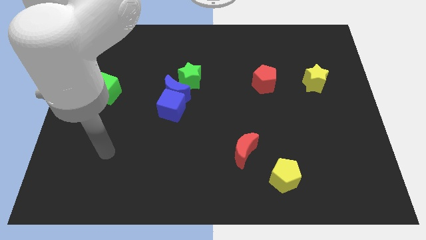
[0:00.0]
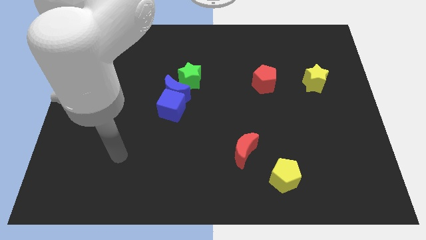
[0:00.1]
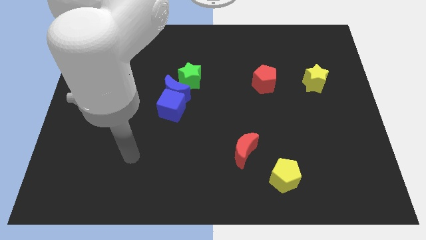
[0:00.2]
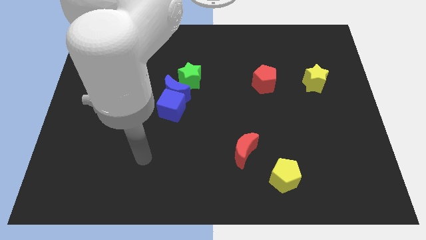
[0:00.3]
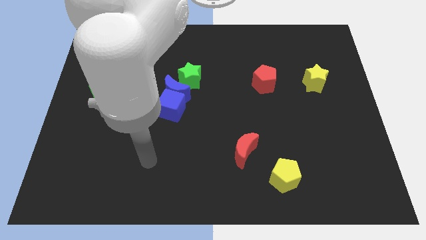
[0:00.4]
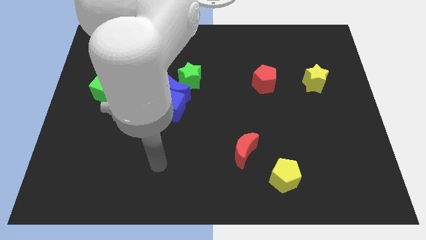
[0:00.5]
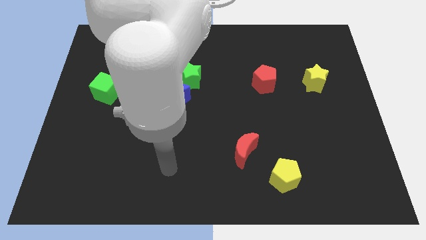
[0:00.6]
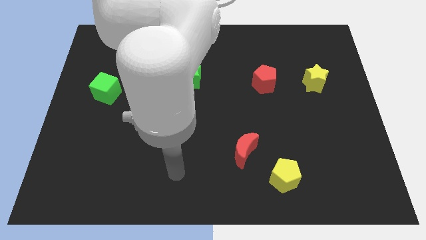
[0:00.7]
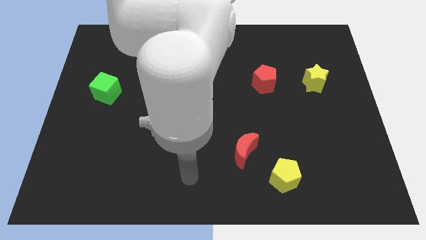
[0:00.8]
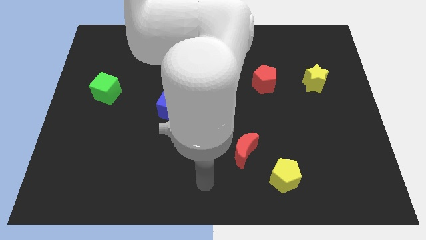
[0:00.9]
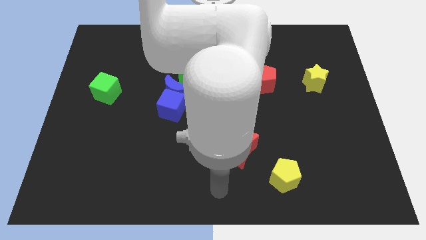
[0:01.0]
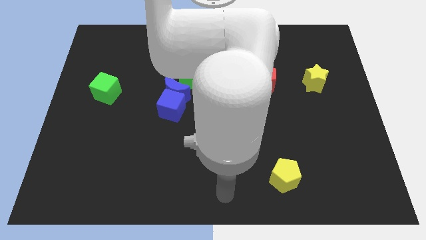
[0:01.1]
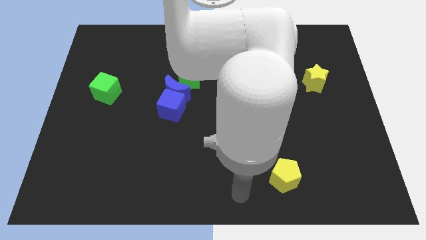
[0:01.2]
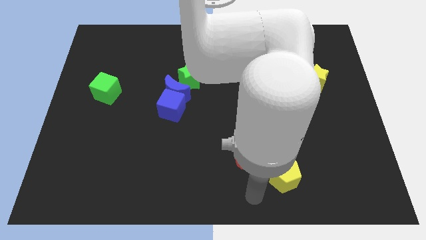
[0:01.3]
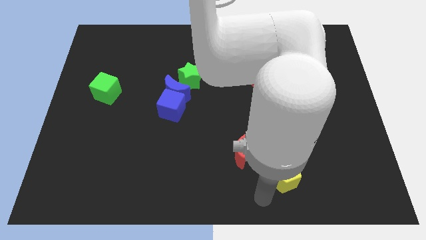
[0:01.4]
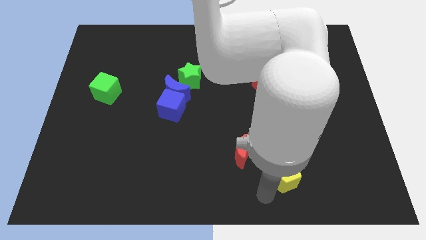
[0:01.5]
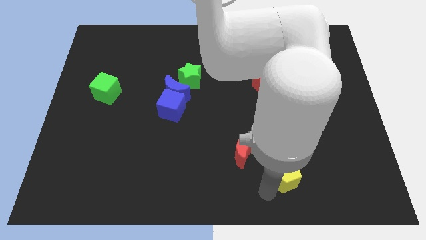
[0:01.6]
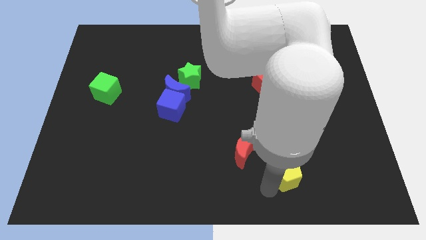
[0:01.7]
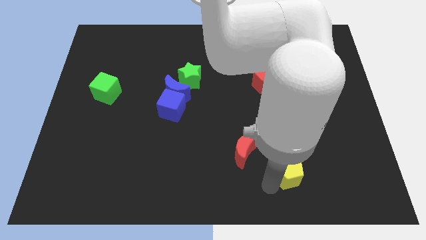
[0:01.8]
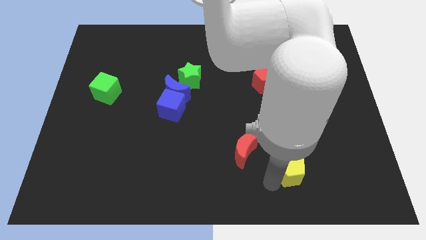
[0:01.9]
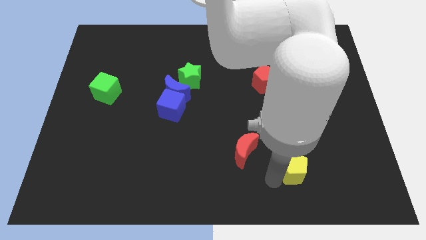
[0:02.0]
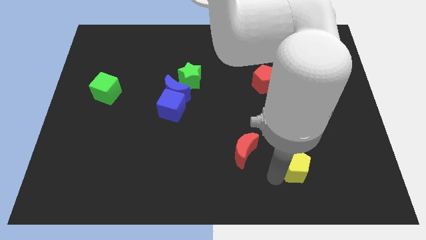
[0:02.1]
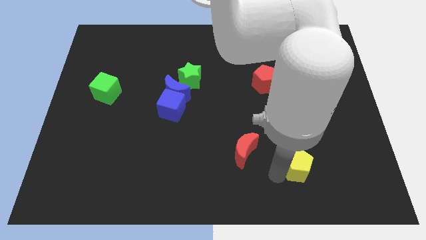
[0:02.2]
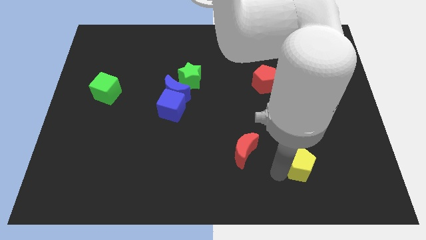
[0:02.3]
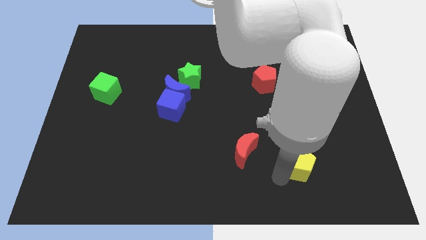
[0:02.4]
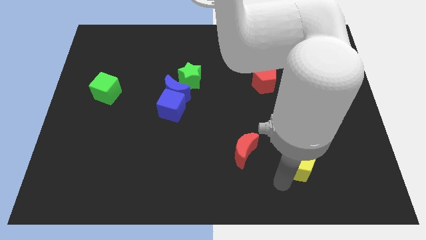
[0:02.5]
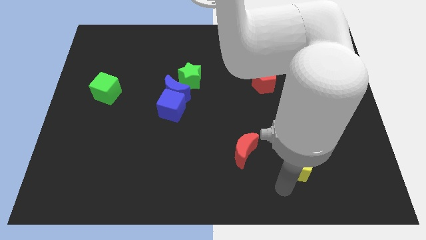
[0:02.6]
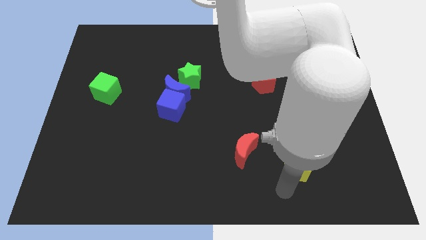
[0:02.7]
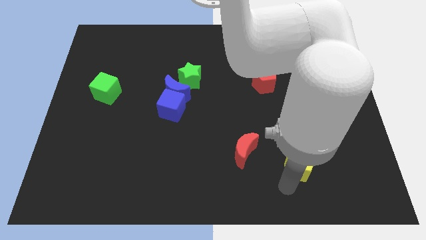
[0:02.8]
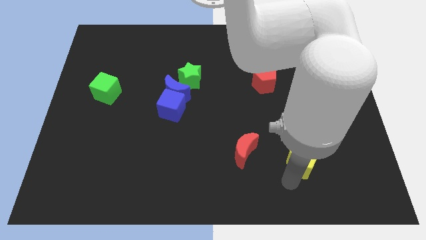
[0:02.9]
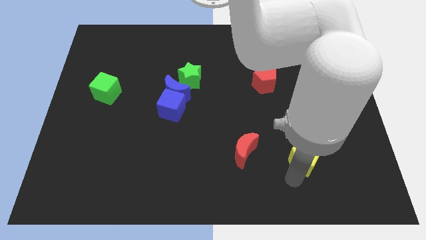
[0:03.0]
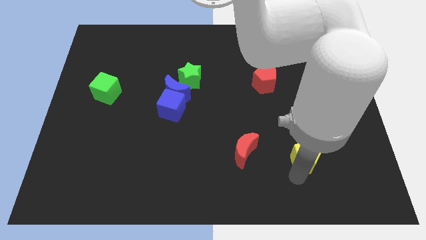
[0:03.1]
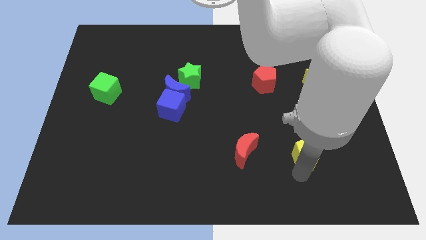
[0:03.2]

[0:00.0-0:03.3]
push the yellow pentagon up and to the right a bit

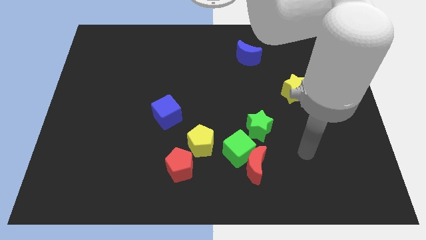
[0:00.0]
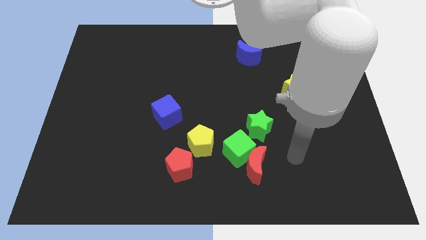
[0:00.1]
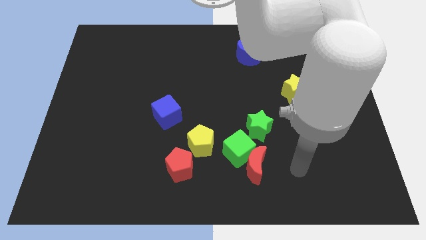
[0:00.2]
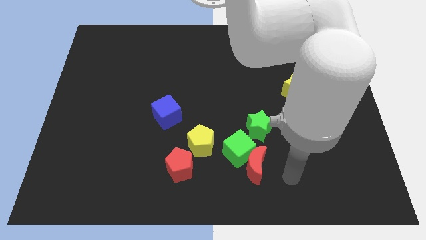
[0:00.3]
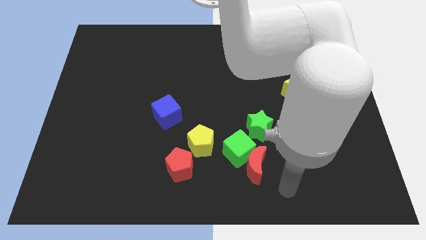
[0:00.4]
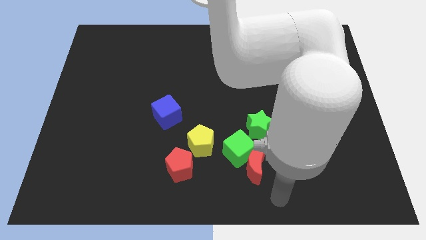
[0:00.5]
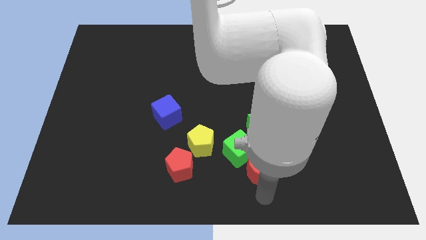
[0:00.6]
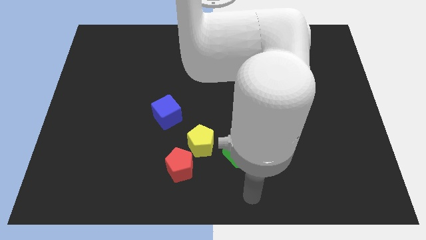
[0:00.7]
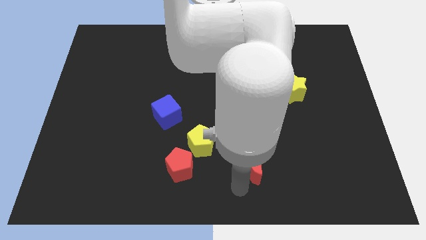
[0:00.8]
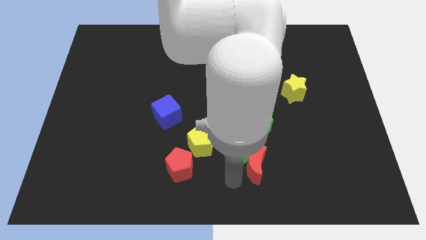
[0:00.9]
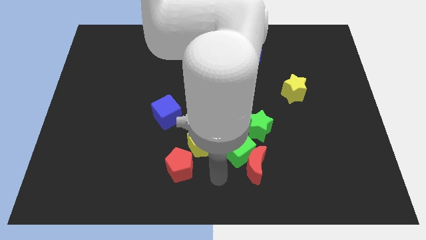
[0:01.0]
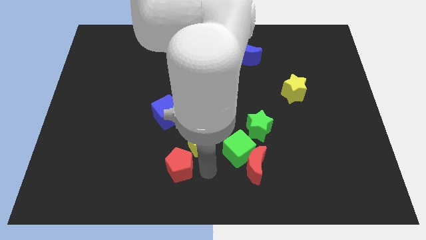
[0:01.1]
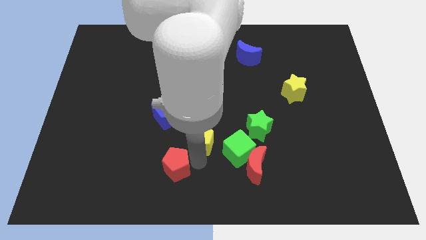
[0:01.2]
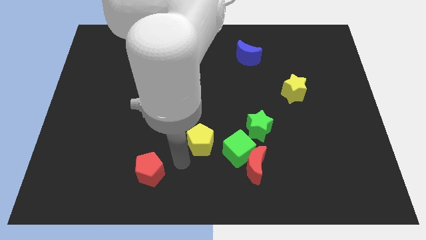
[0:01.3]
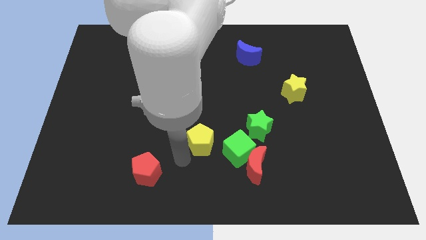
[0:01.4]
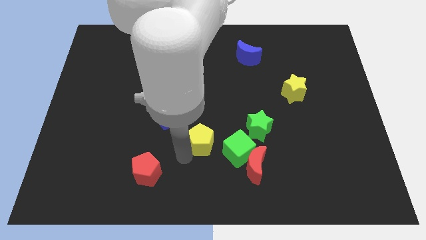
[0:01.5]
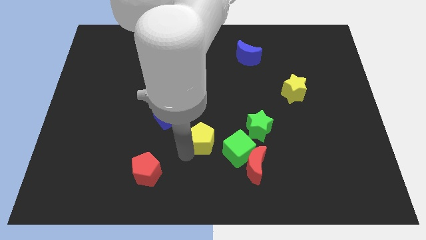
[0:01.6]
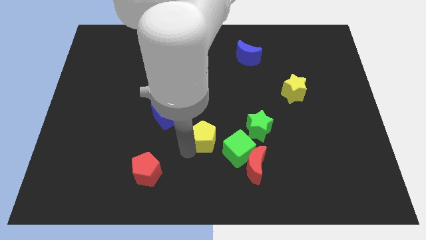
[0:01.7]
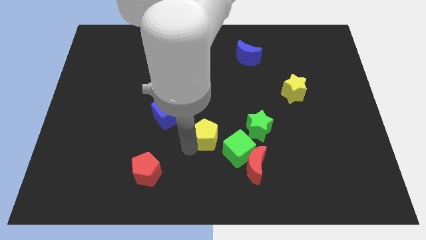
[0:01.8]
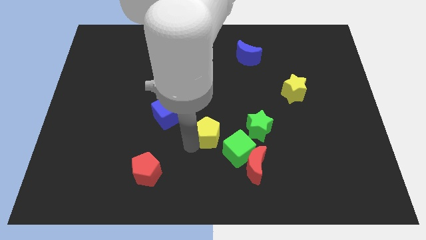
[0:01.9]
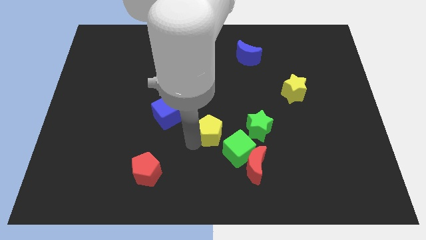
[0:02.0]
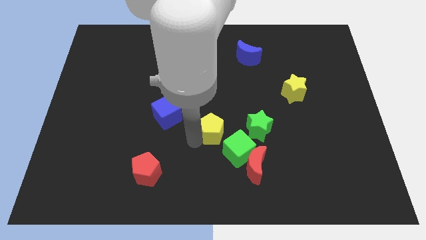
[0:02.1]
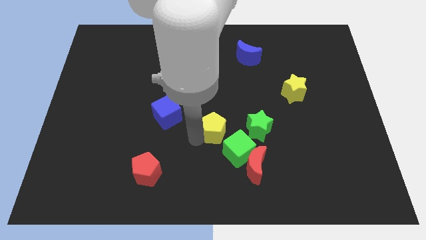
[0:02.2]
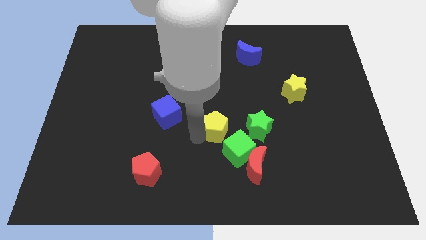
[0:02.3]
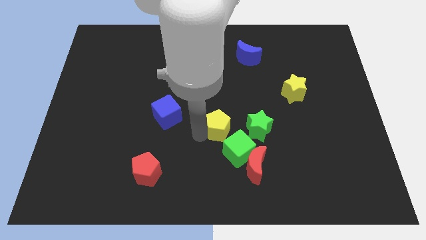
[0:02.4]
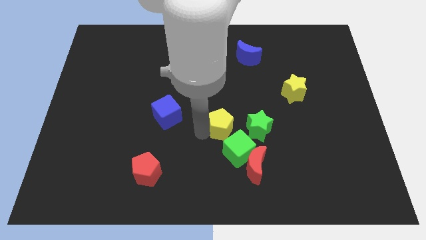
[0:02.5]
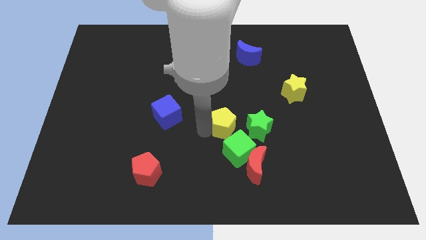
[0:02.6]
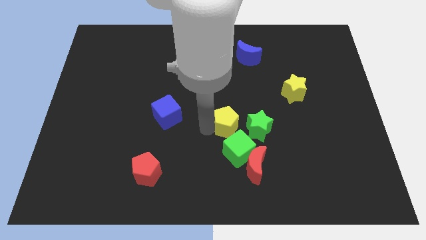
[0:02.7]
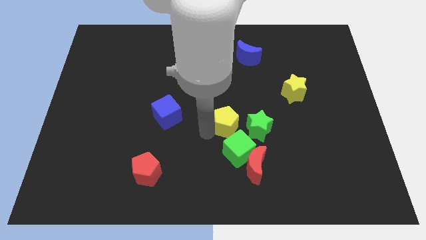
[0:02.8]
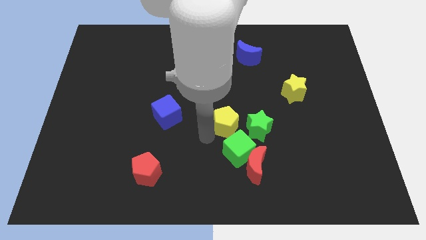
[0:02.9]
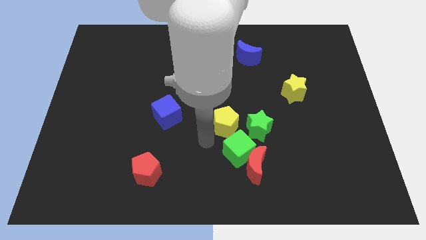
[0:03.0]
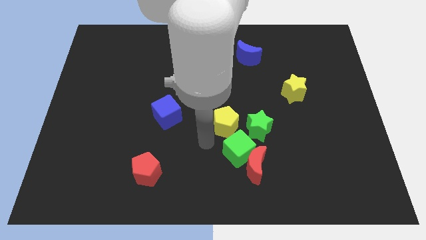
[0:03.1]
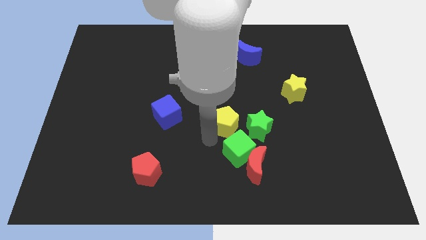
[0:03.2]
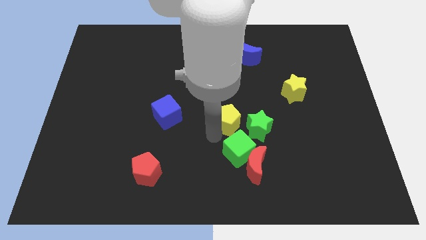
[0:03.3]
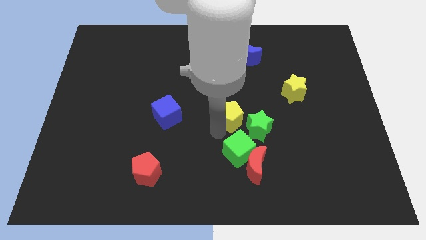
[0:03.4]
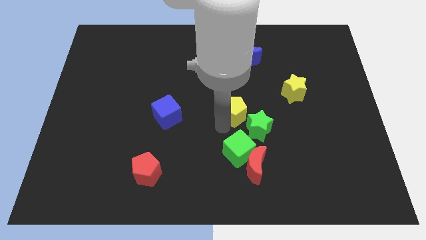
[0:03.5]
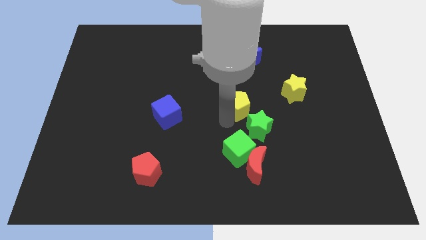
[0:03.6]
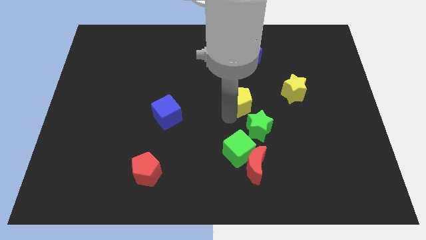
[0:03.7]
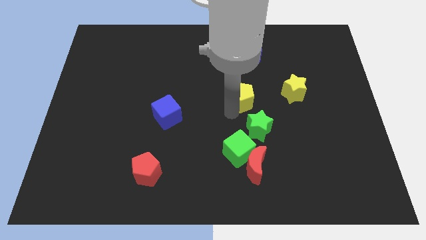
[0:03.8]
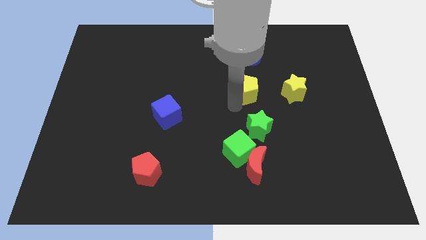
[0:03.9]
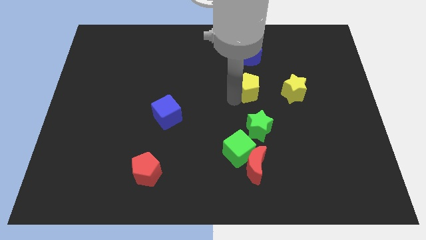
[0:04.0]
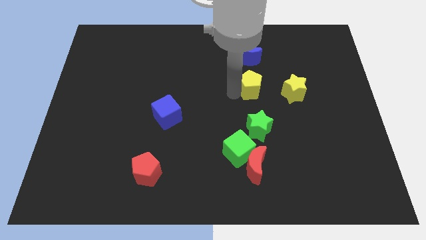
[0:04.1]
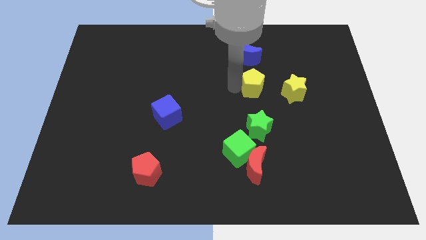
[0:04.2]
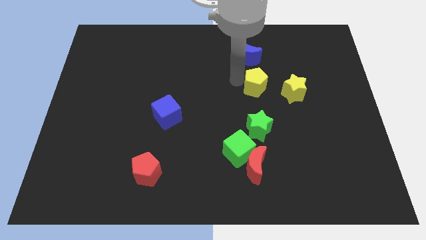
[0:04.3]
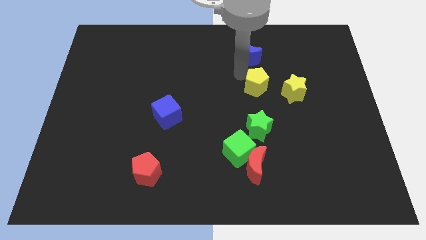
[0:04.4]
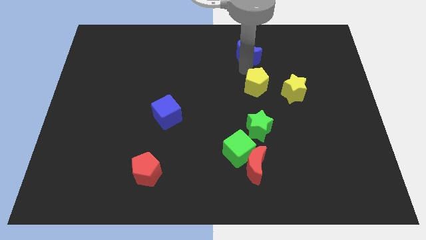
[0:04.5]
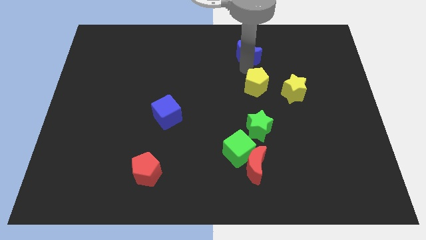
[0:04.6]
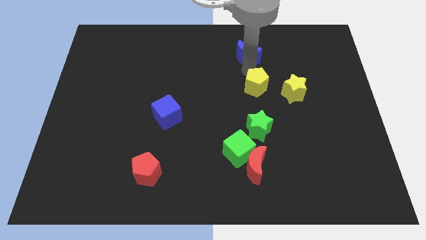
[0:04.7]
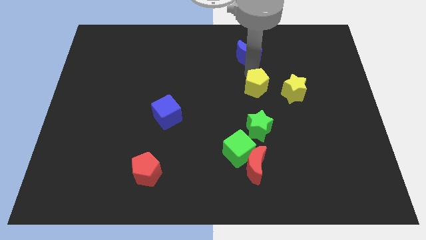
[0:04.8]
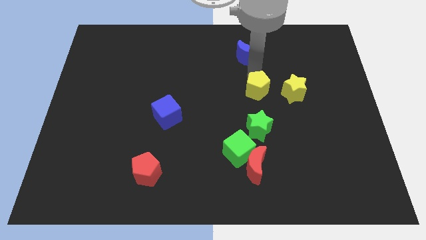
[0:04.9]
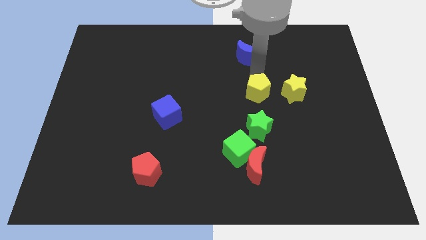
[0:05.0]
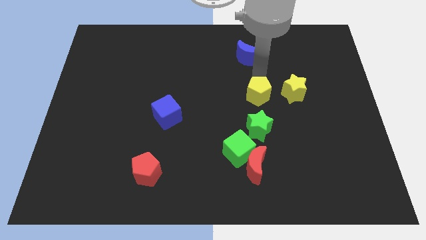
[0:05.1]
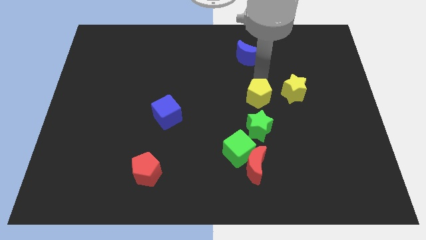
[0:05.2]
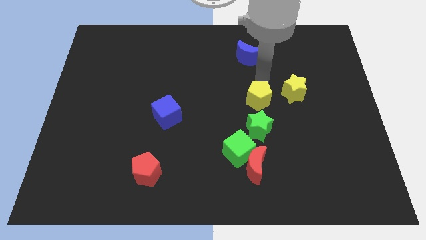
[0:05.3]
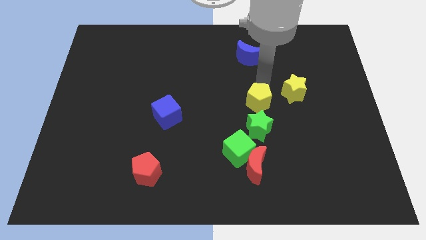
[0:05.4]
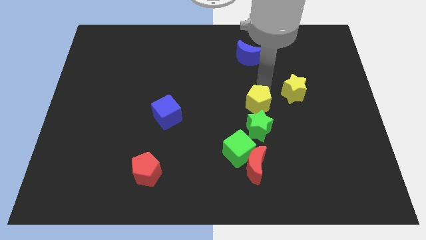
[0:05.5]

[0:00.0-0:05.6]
push the yellow pentagon a little bit to the right
